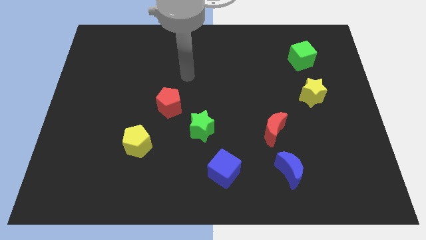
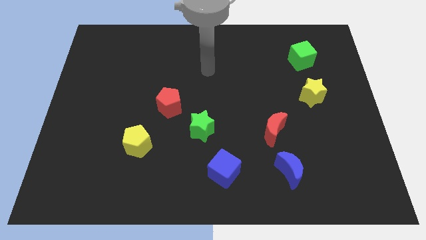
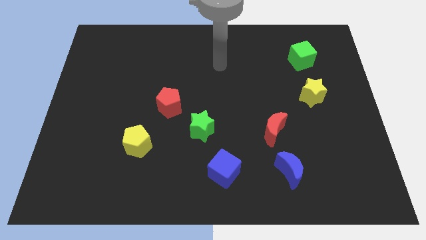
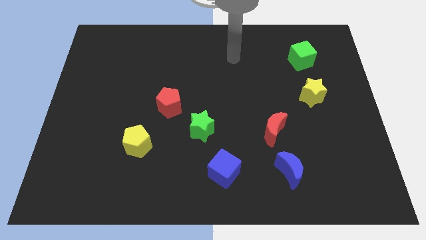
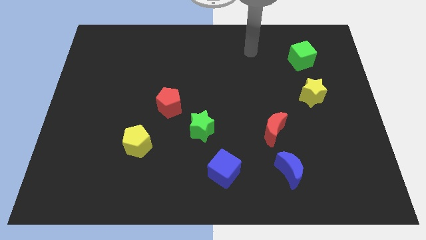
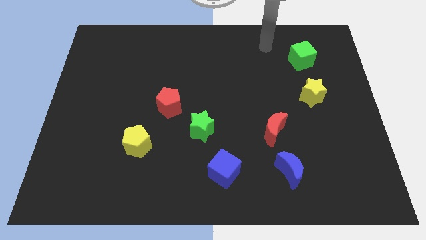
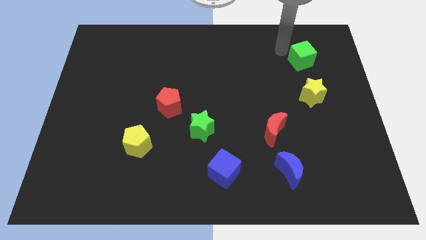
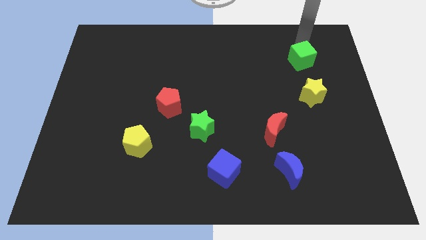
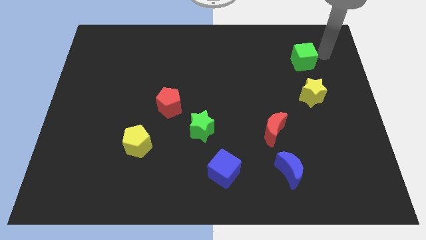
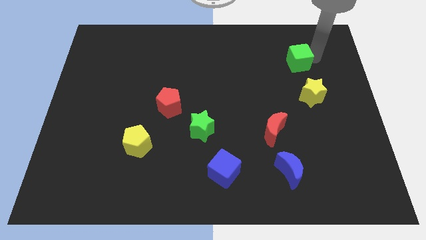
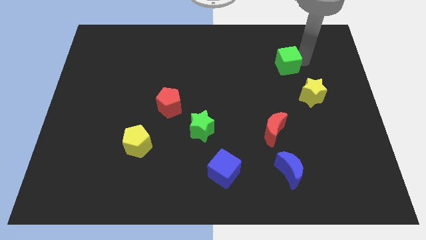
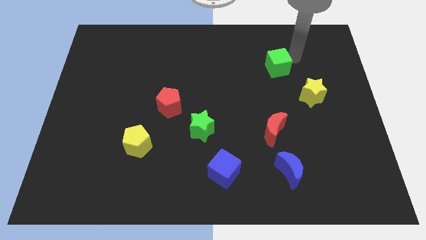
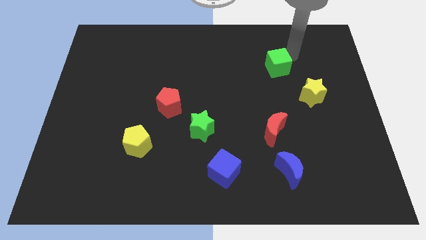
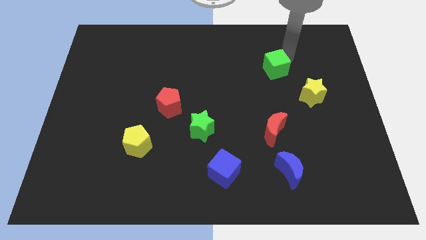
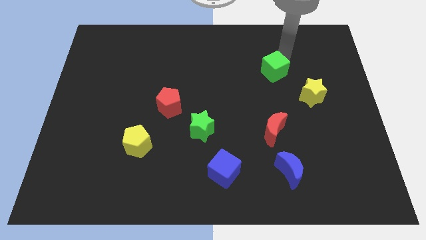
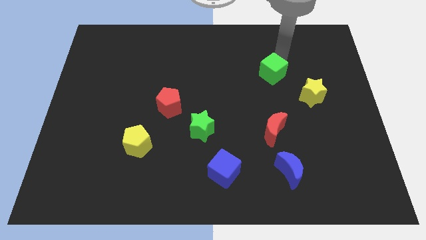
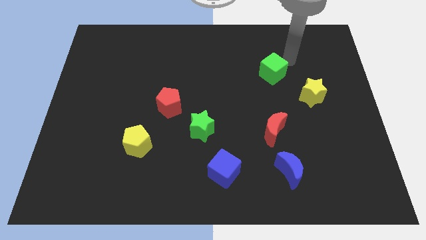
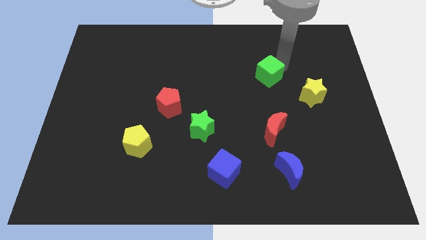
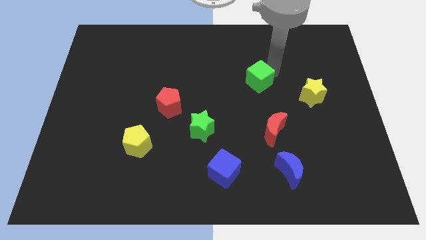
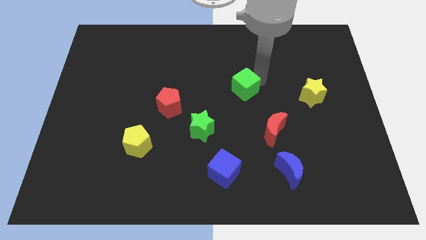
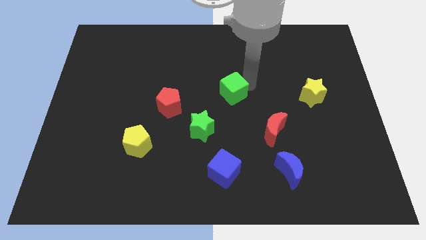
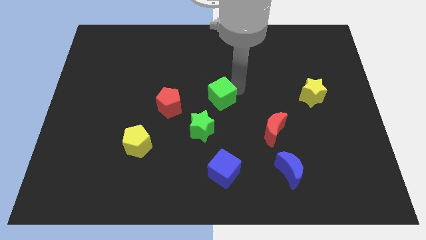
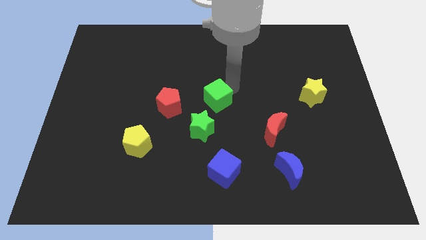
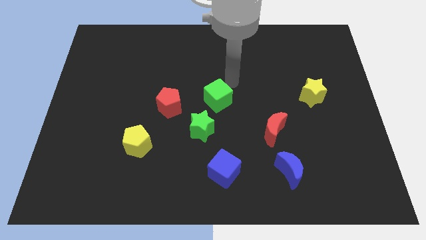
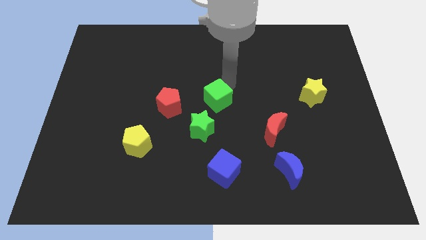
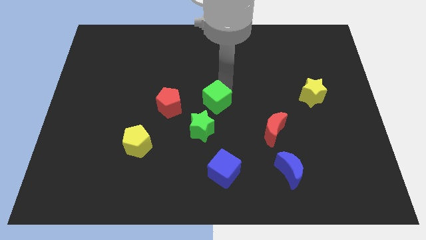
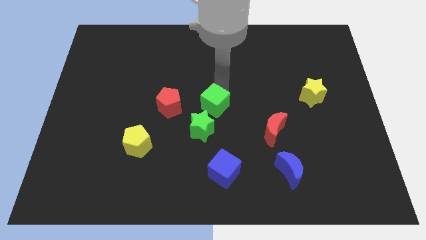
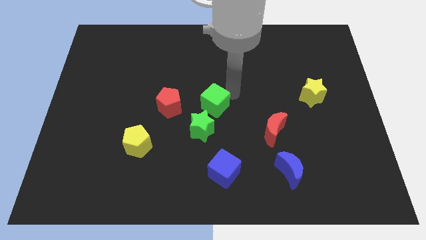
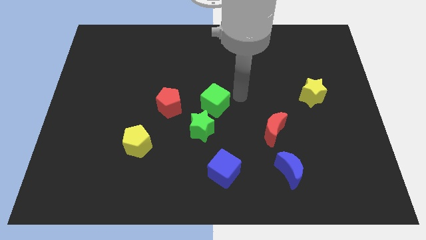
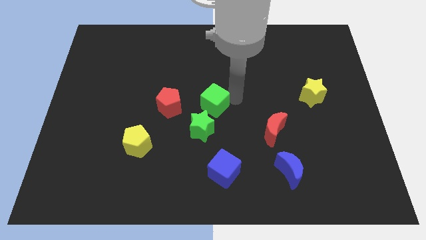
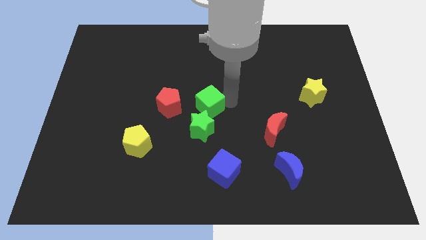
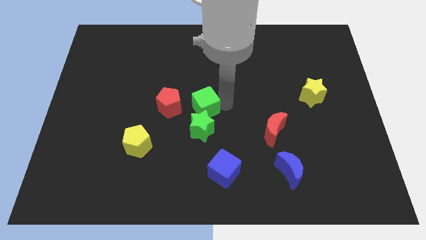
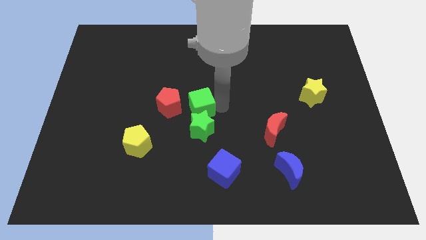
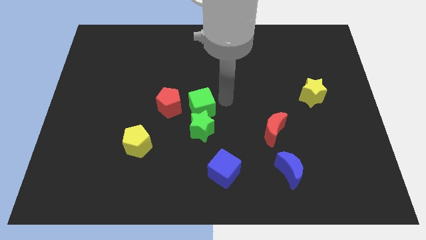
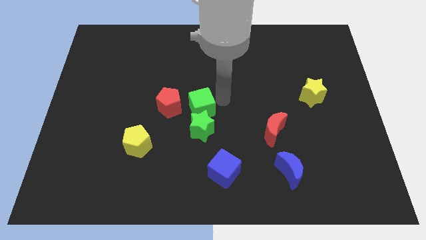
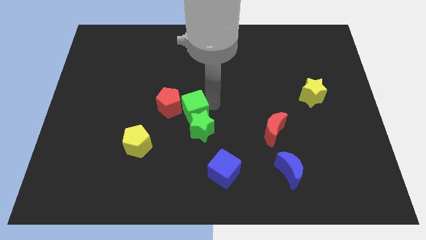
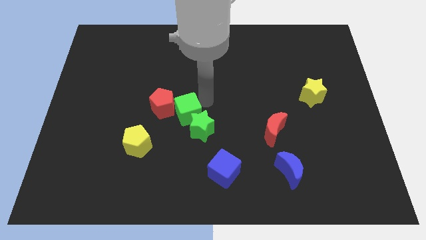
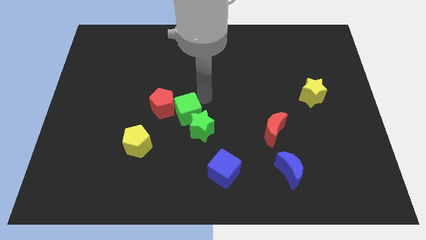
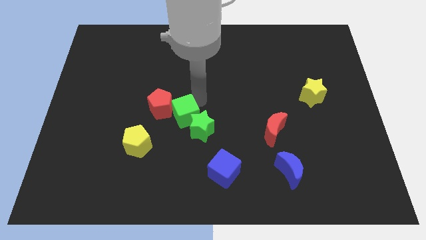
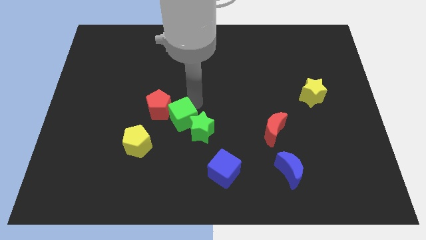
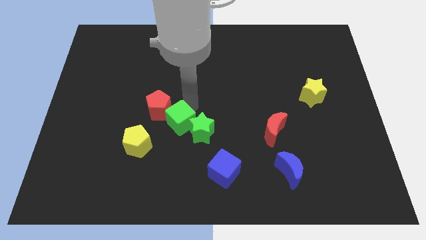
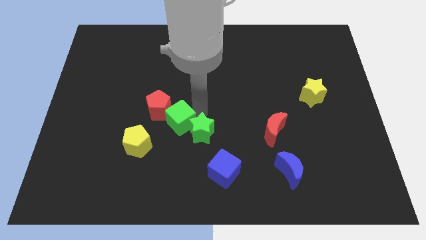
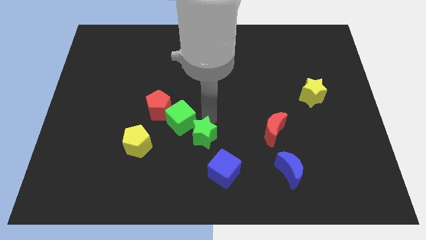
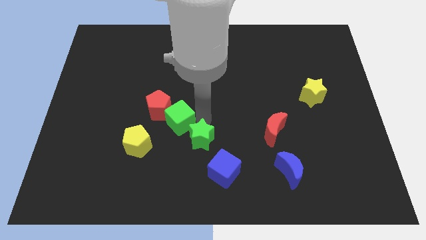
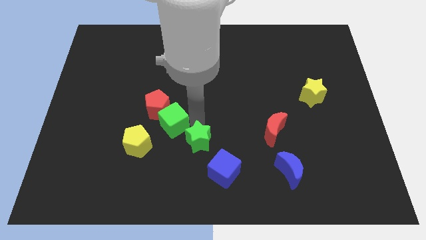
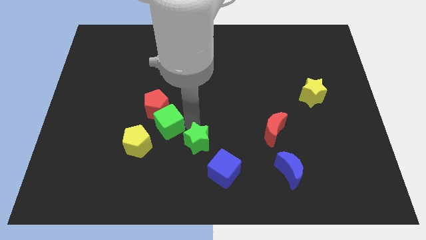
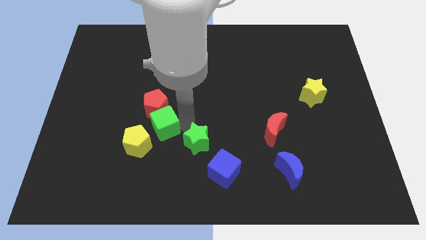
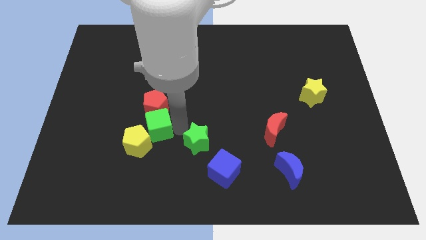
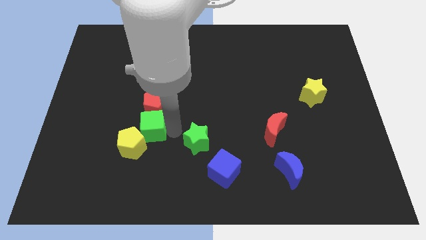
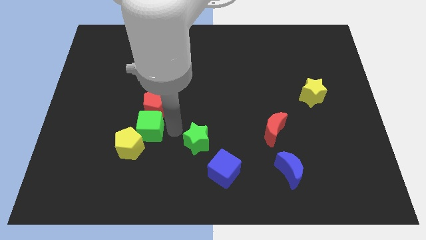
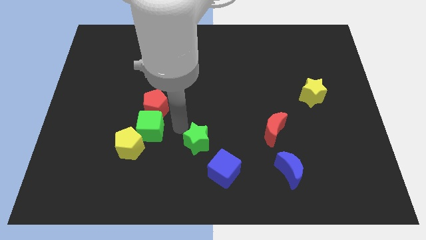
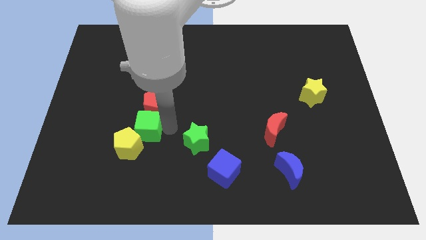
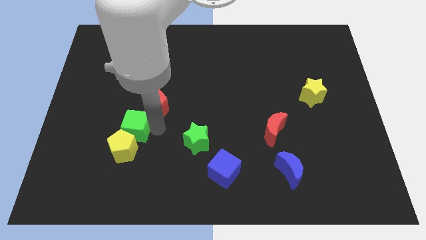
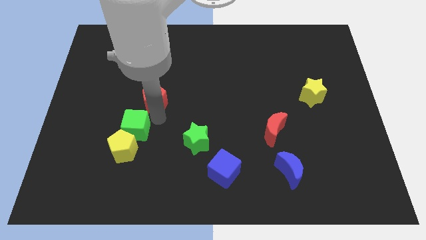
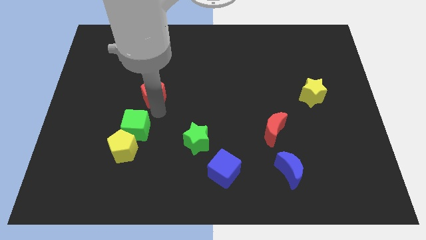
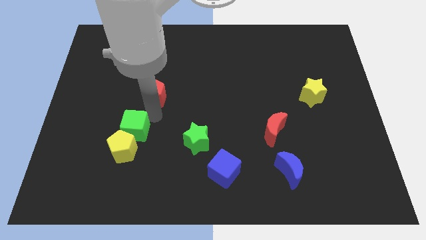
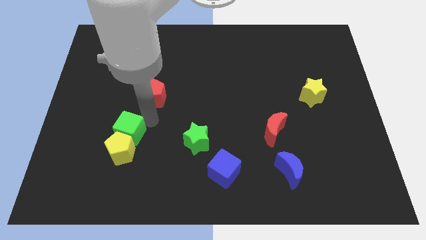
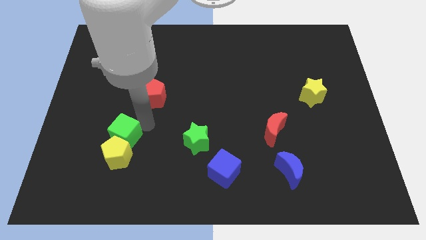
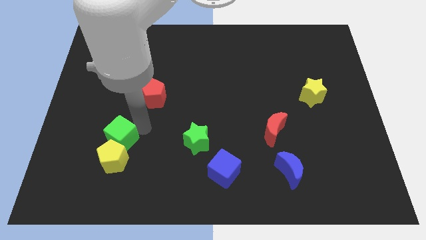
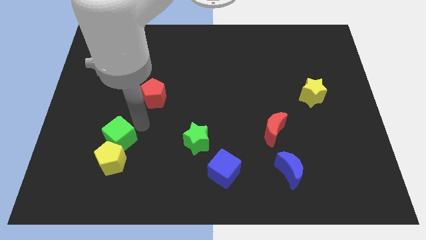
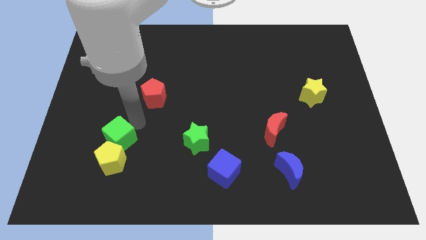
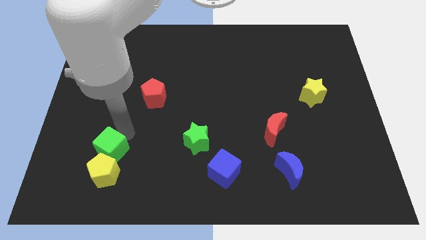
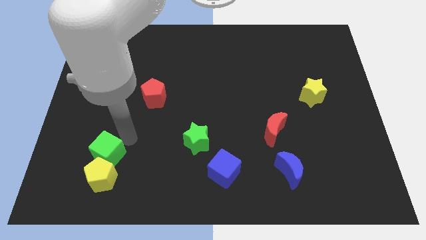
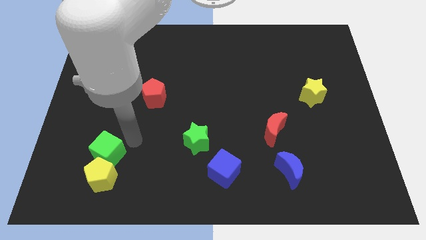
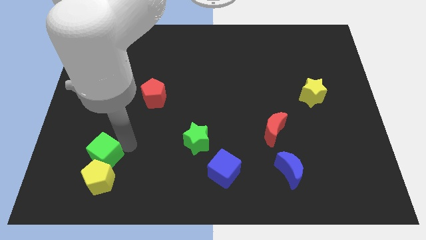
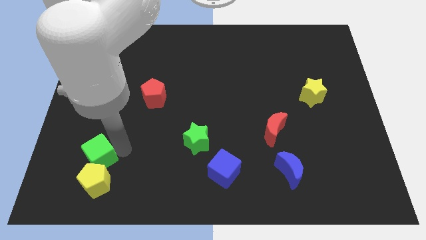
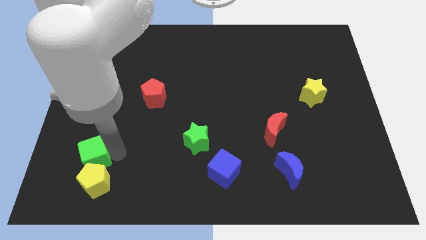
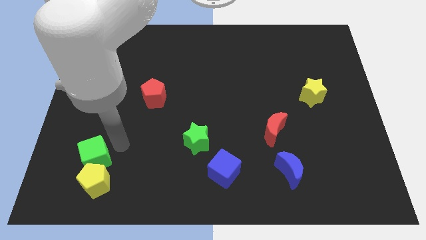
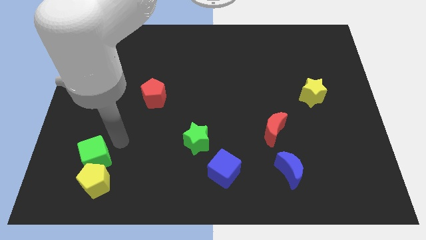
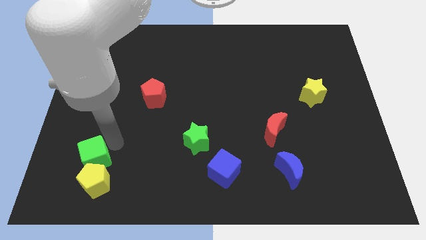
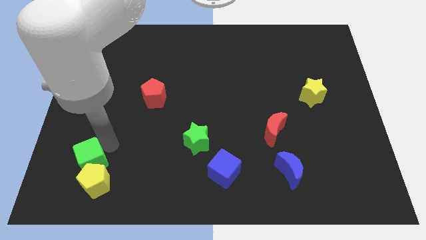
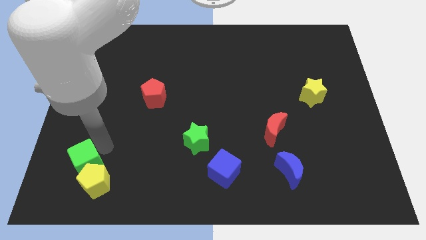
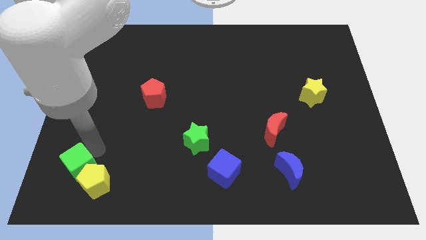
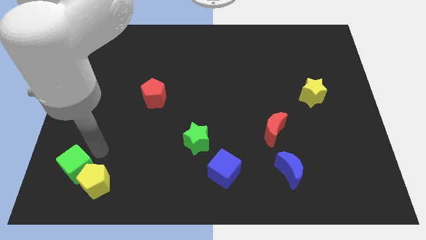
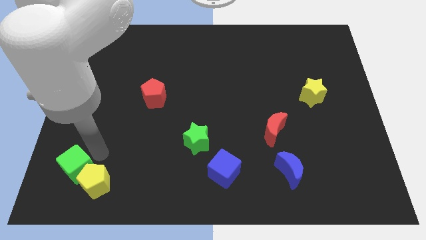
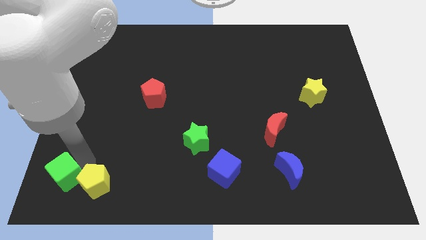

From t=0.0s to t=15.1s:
slide the green cube to the bottom left of the board
